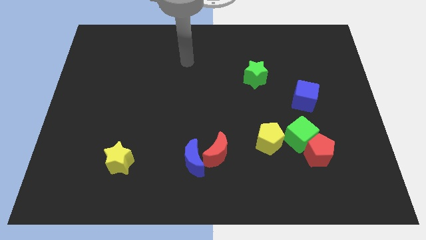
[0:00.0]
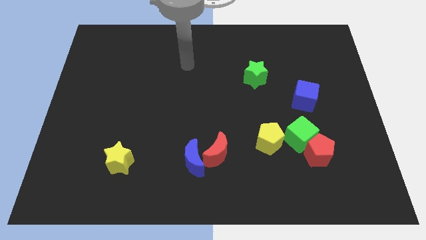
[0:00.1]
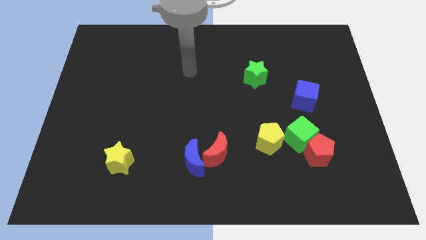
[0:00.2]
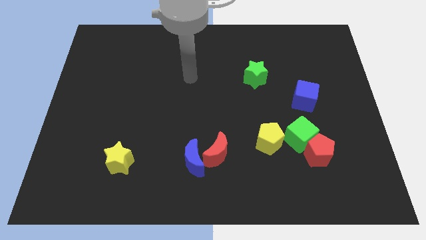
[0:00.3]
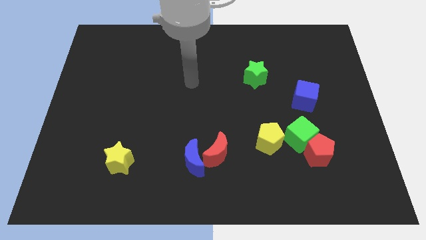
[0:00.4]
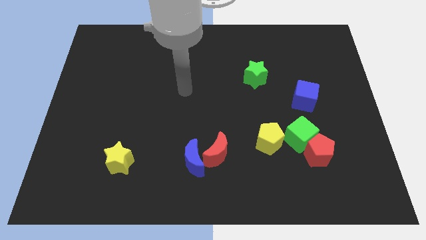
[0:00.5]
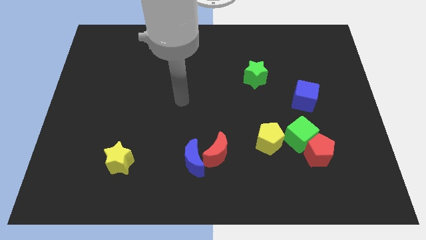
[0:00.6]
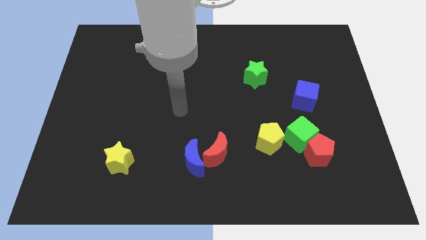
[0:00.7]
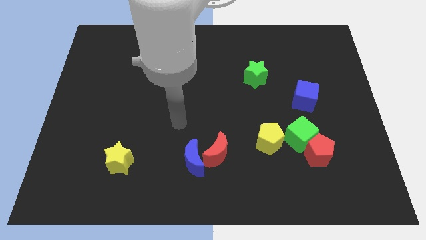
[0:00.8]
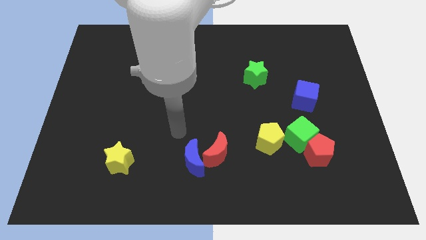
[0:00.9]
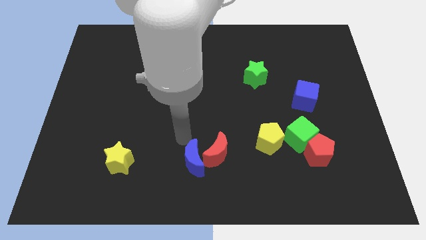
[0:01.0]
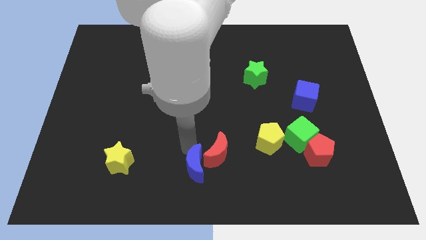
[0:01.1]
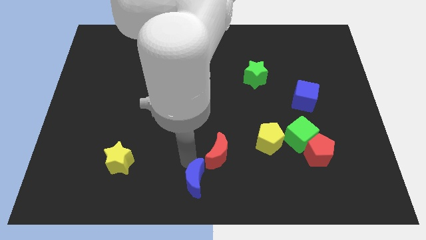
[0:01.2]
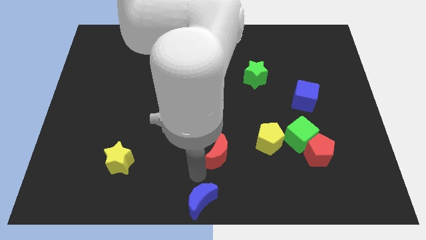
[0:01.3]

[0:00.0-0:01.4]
move the red moon away from the blue moon

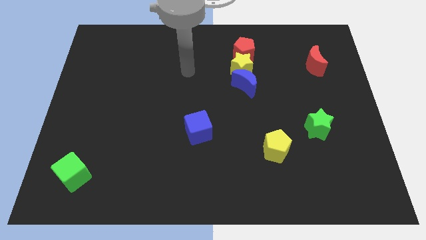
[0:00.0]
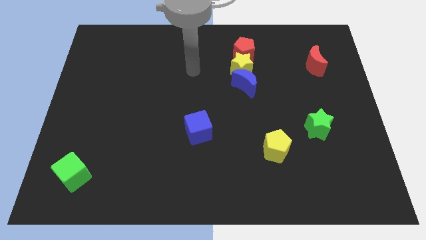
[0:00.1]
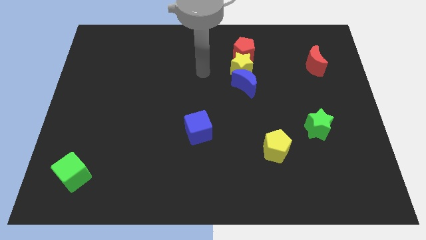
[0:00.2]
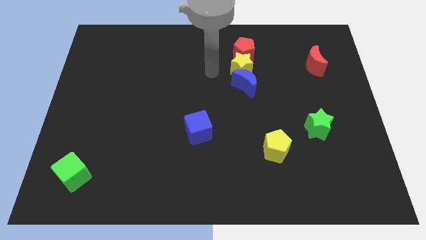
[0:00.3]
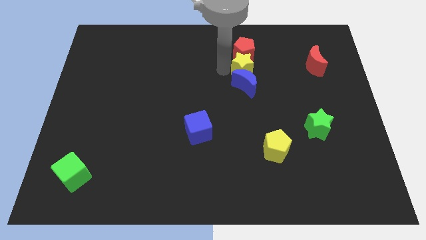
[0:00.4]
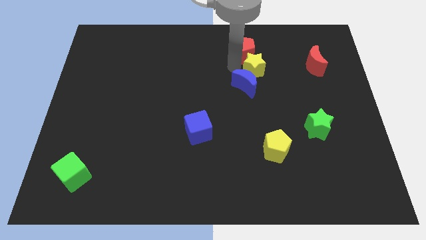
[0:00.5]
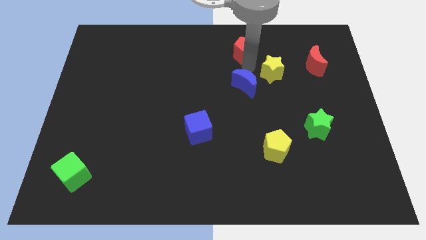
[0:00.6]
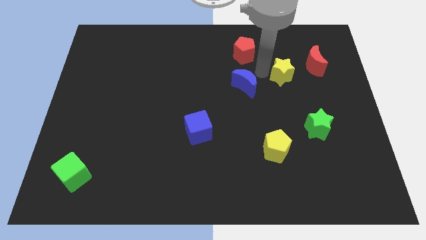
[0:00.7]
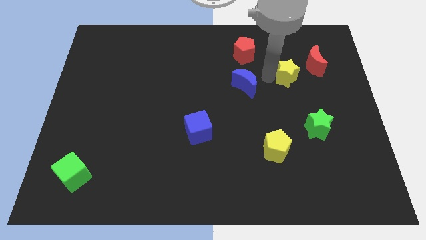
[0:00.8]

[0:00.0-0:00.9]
pull the blue moon apart from the yellow star

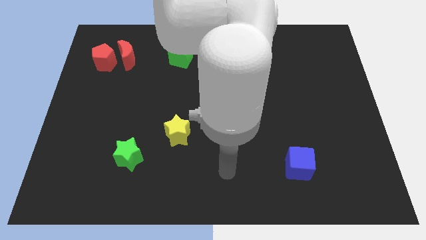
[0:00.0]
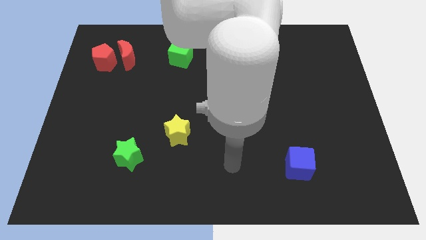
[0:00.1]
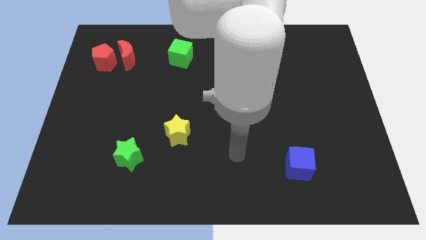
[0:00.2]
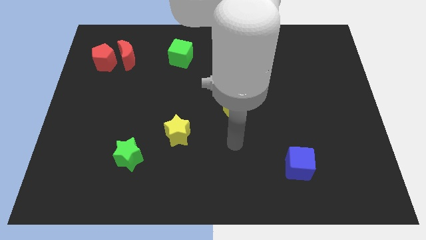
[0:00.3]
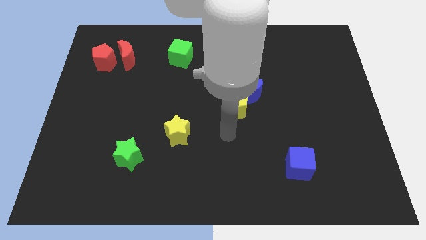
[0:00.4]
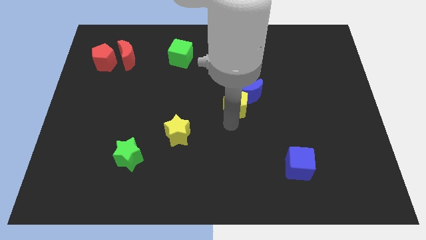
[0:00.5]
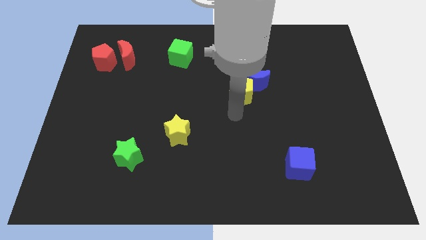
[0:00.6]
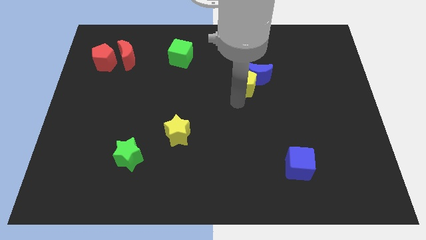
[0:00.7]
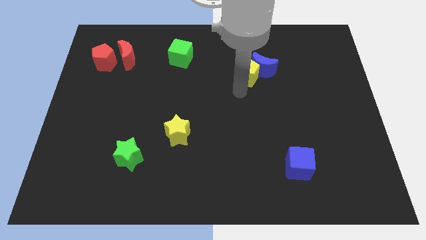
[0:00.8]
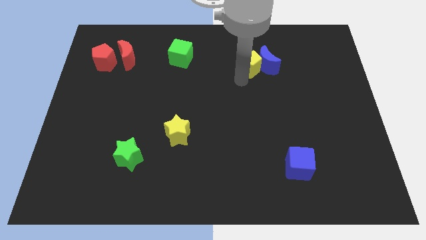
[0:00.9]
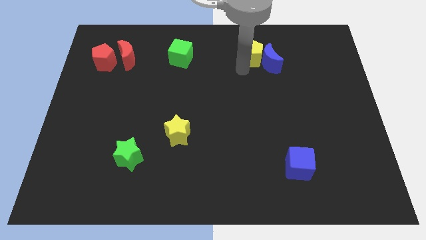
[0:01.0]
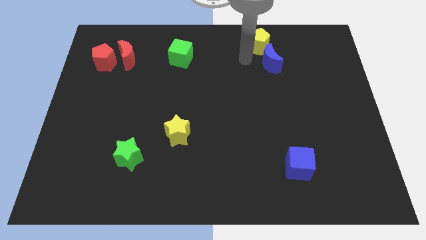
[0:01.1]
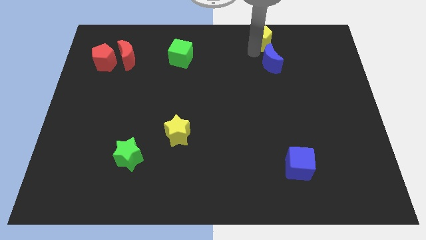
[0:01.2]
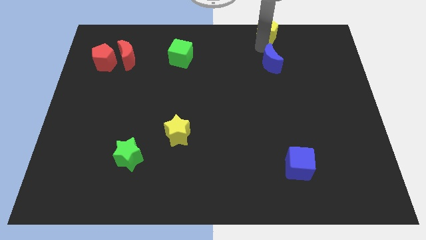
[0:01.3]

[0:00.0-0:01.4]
pull the blue moon apart from the yellow pentagon

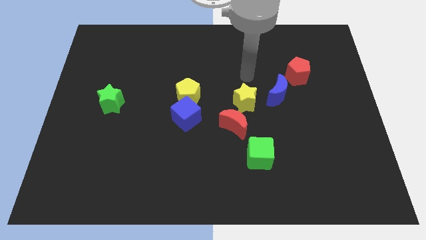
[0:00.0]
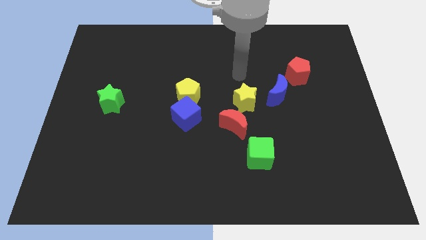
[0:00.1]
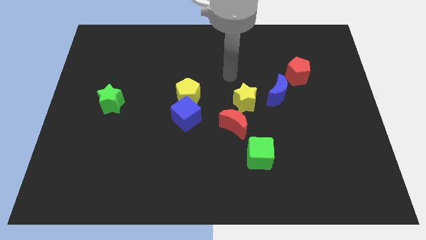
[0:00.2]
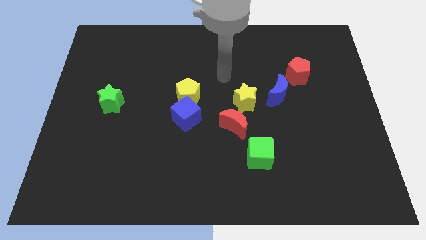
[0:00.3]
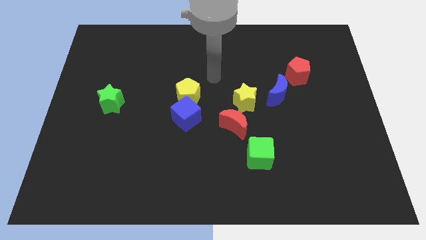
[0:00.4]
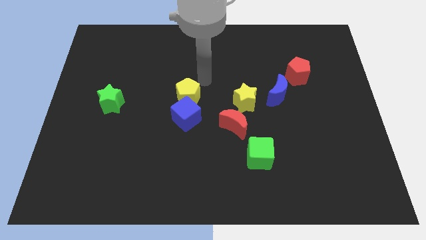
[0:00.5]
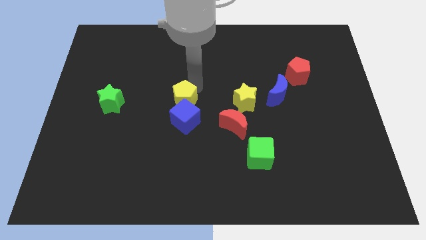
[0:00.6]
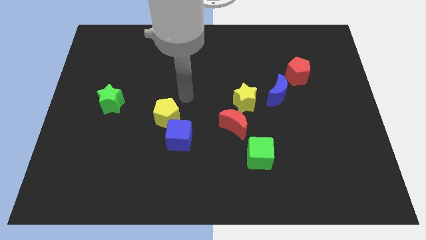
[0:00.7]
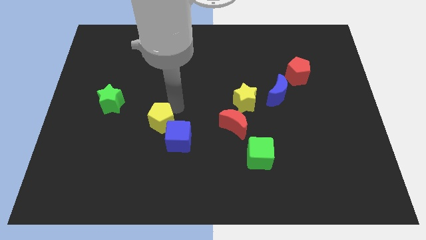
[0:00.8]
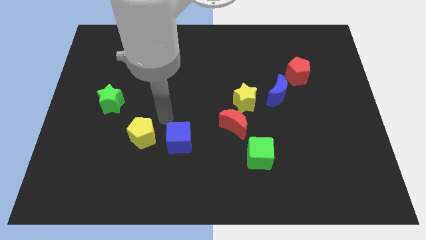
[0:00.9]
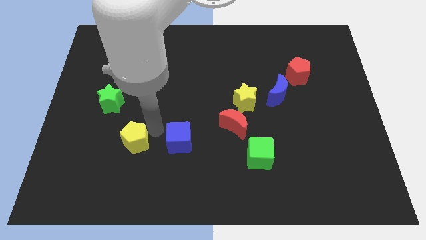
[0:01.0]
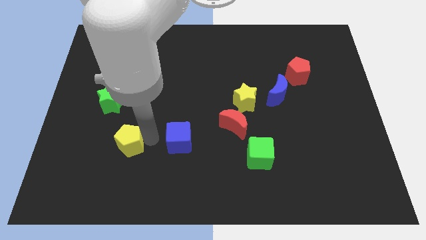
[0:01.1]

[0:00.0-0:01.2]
pull the blue cube apart from the yellow pentagon

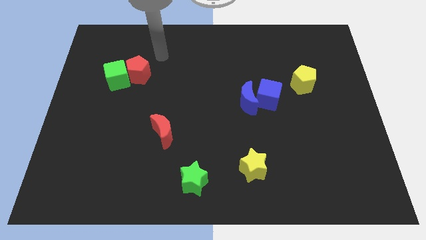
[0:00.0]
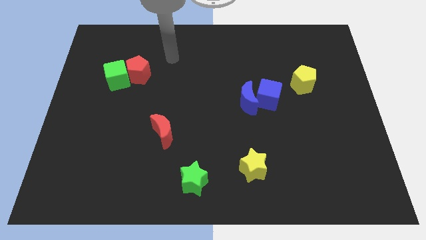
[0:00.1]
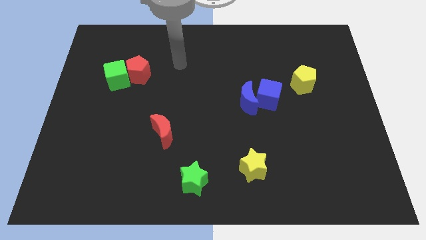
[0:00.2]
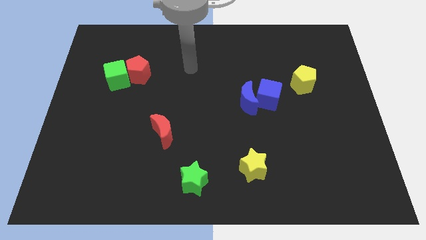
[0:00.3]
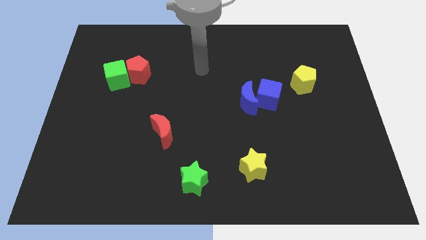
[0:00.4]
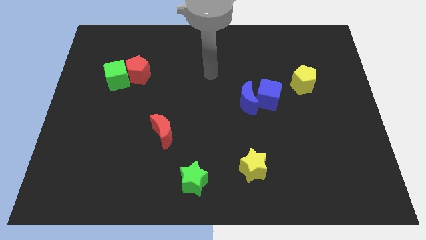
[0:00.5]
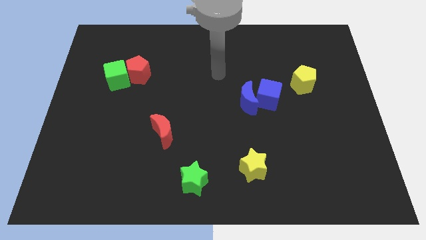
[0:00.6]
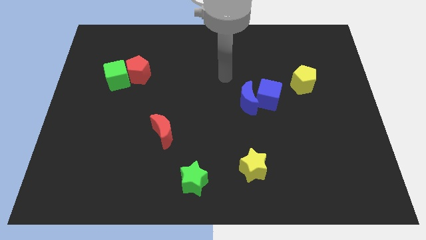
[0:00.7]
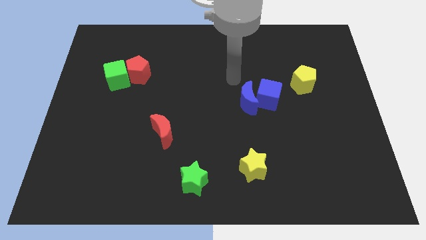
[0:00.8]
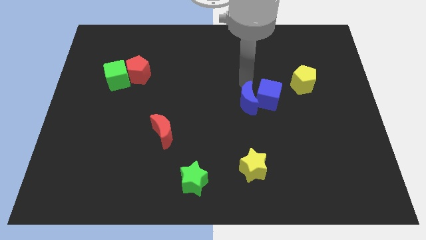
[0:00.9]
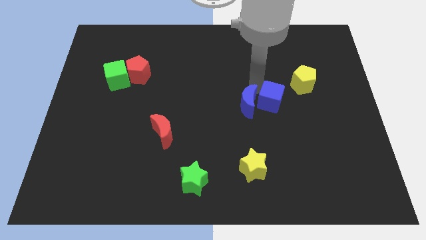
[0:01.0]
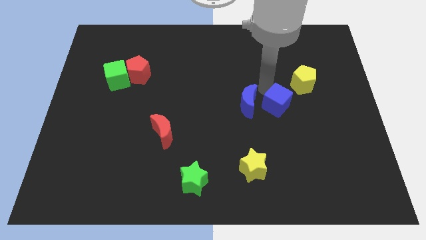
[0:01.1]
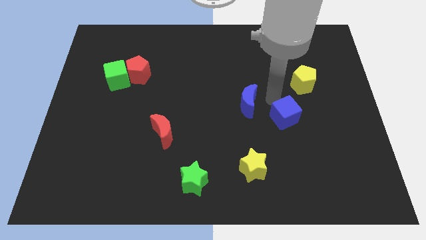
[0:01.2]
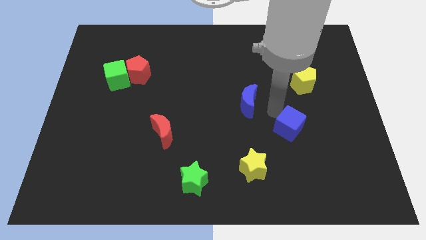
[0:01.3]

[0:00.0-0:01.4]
separate the blue moon from the blue cube

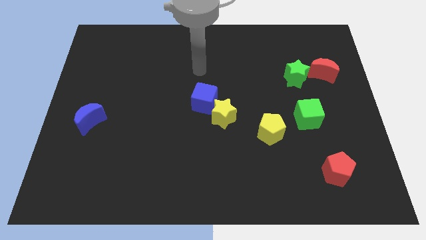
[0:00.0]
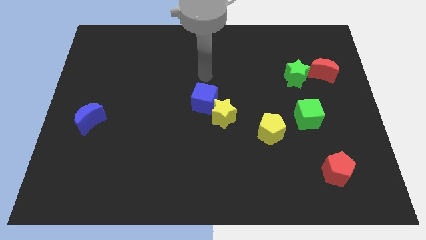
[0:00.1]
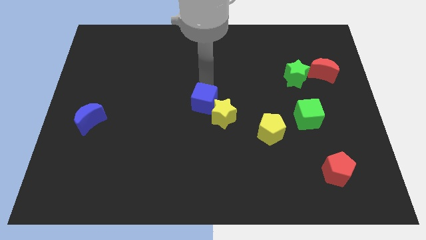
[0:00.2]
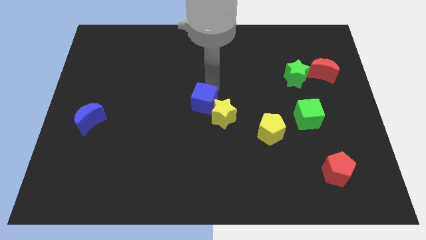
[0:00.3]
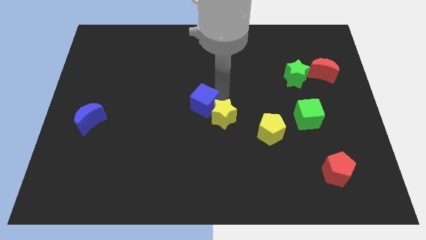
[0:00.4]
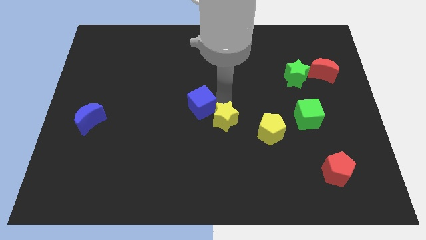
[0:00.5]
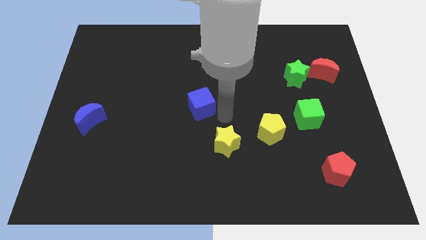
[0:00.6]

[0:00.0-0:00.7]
pull the blue cube apart from the yellow star

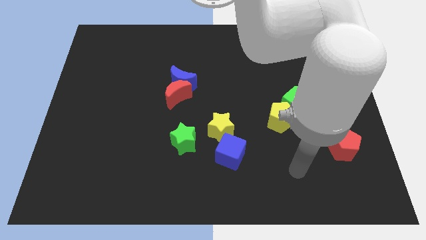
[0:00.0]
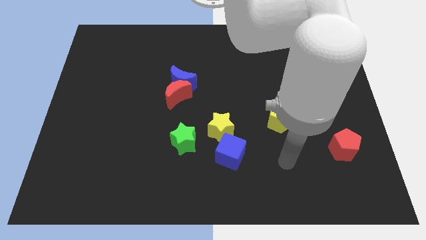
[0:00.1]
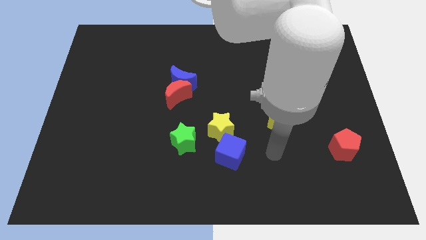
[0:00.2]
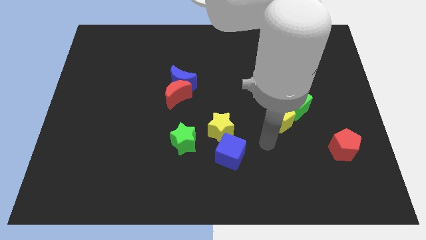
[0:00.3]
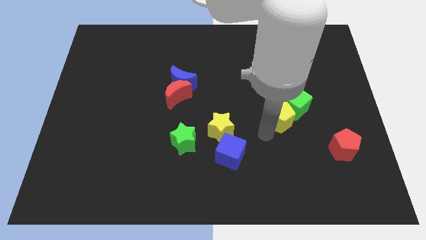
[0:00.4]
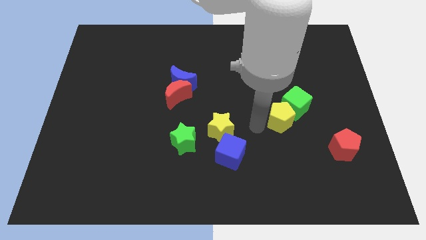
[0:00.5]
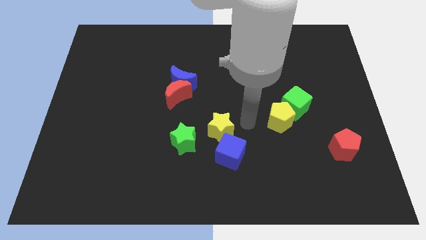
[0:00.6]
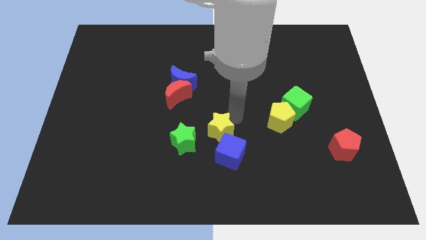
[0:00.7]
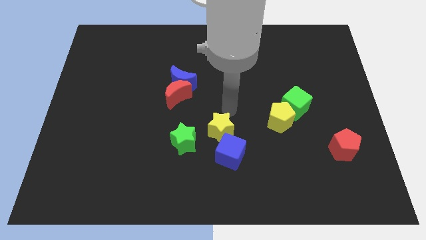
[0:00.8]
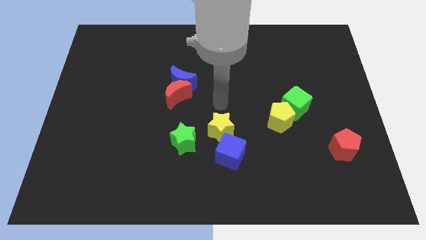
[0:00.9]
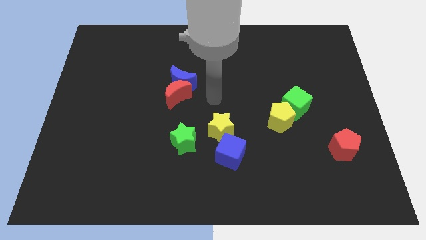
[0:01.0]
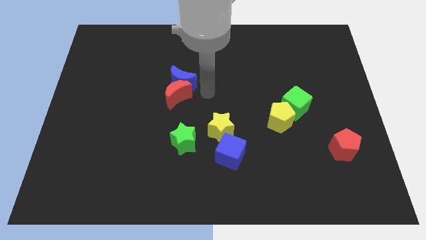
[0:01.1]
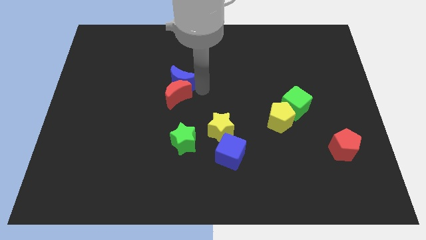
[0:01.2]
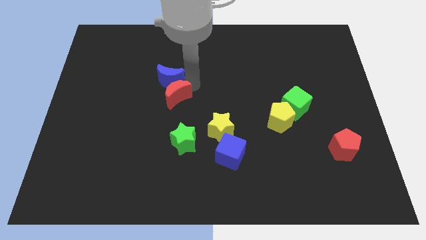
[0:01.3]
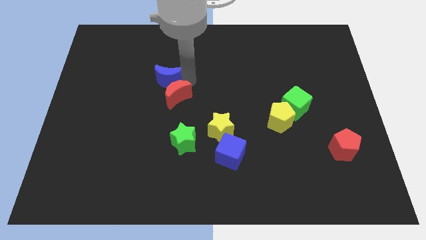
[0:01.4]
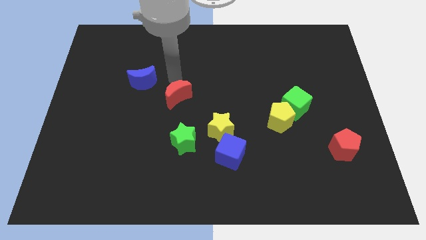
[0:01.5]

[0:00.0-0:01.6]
pull the red moon apart from the blue moon

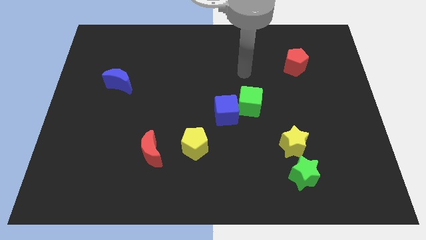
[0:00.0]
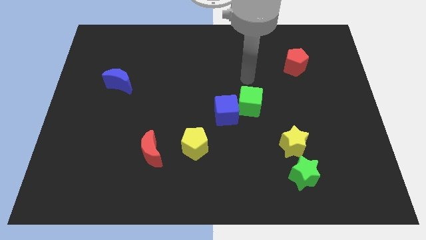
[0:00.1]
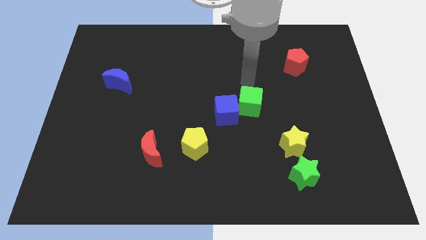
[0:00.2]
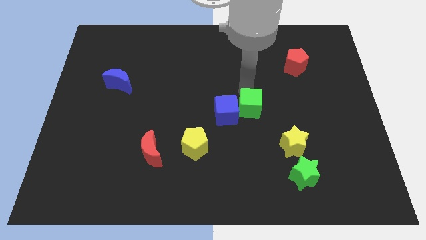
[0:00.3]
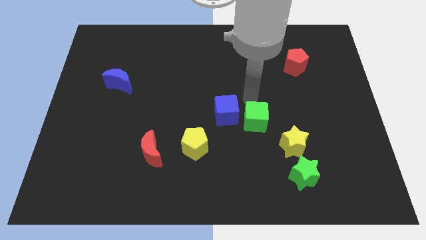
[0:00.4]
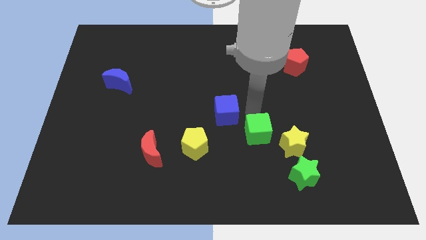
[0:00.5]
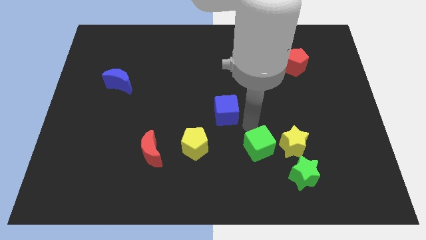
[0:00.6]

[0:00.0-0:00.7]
separate the blue cube from the green cube
